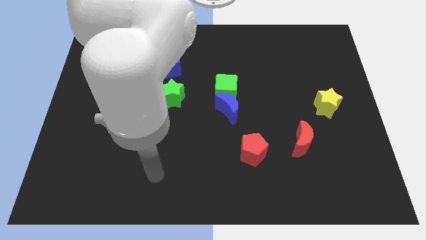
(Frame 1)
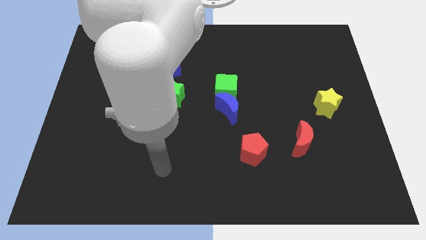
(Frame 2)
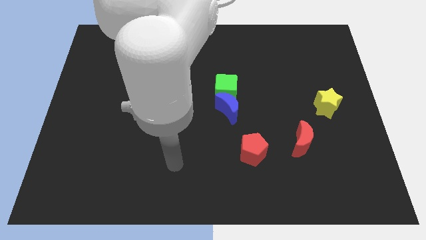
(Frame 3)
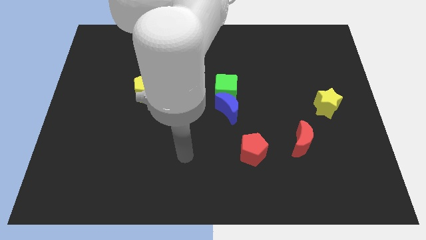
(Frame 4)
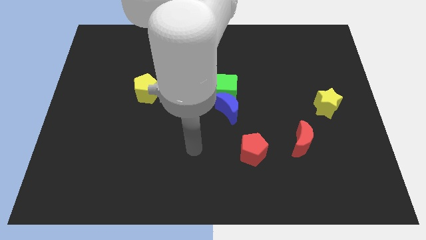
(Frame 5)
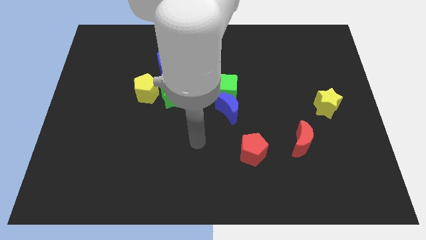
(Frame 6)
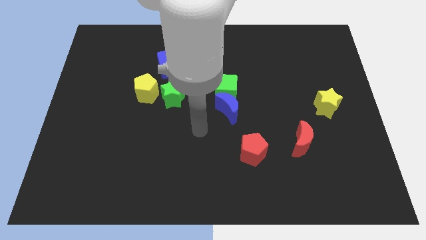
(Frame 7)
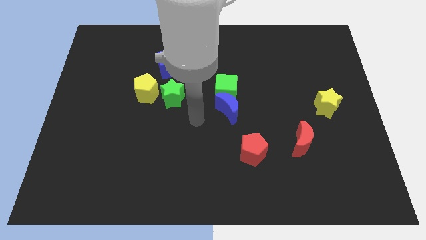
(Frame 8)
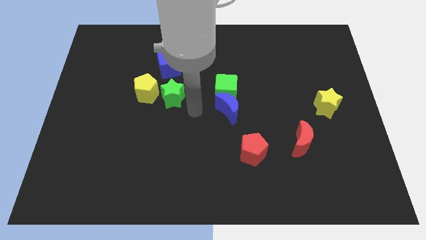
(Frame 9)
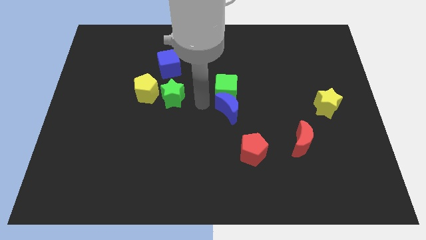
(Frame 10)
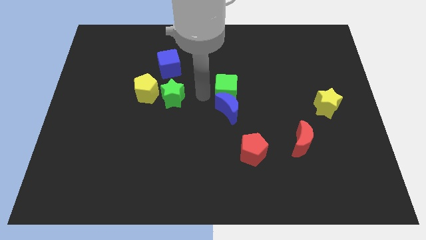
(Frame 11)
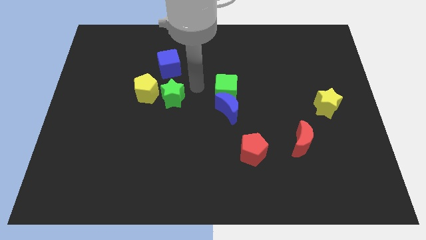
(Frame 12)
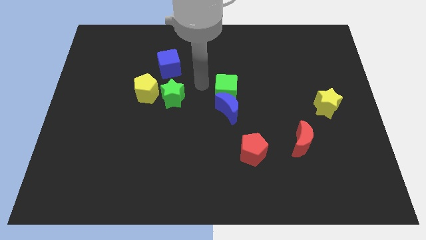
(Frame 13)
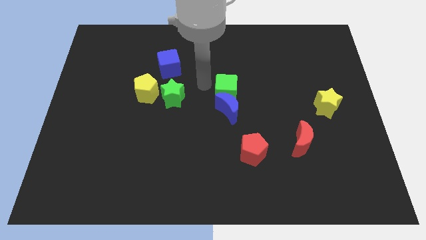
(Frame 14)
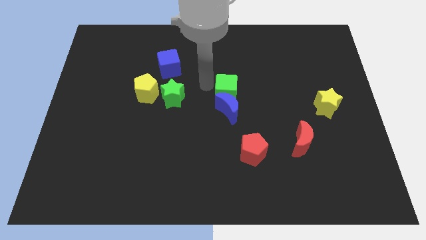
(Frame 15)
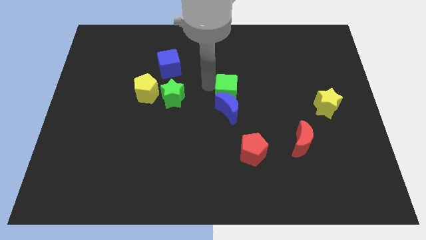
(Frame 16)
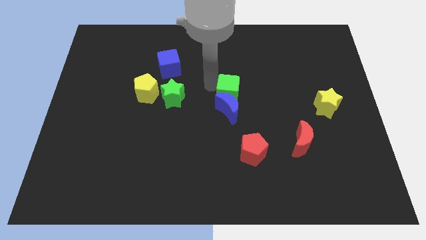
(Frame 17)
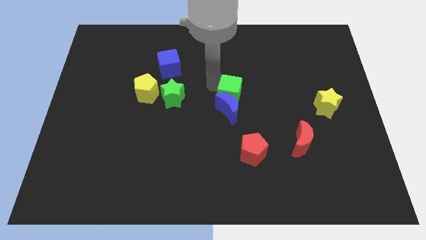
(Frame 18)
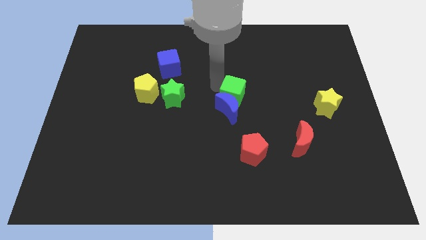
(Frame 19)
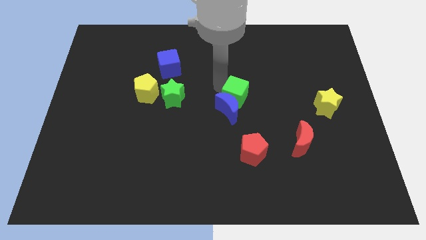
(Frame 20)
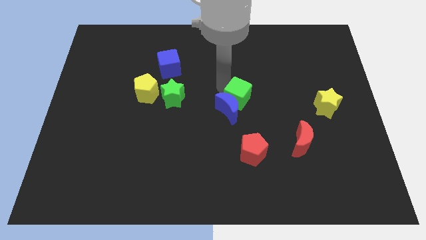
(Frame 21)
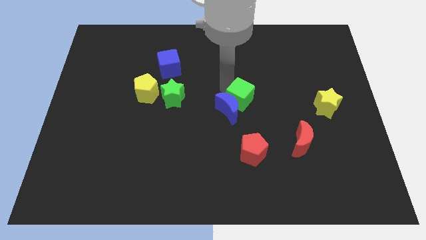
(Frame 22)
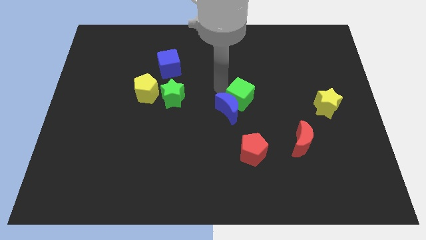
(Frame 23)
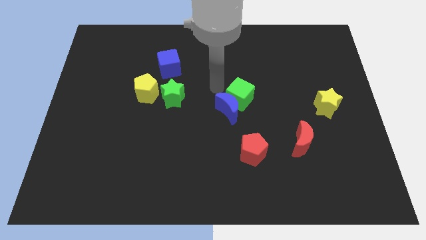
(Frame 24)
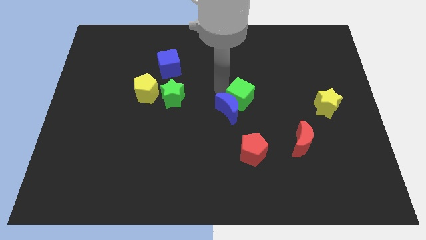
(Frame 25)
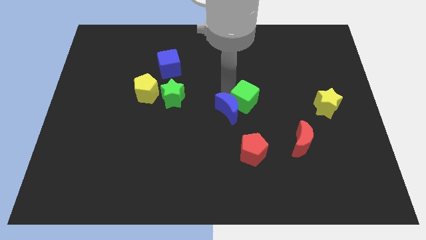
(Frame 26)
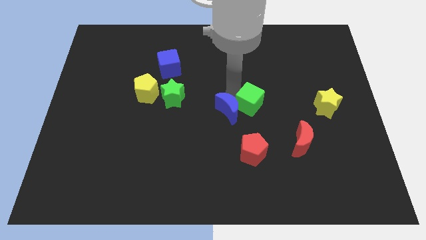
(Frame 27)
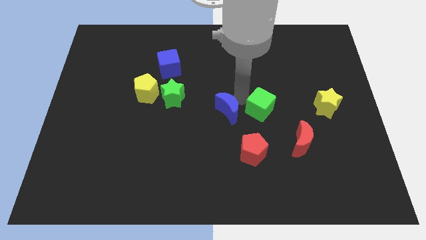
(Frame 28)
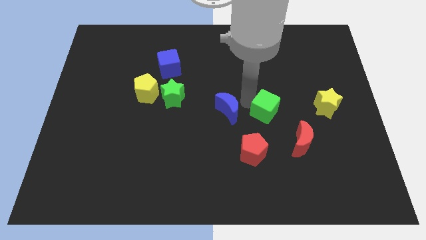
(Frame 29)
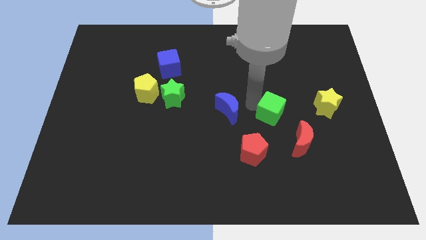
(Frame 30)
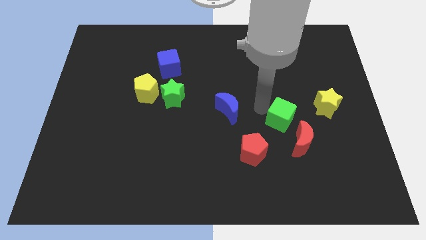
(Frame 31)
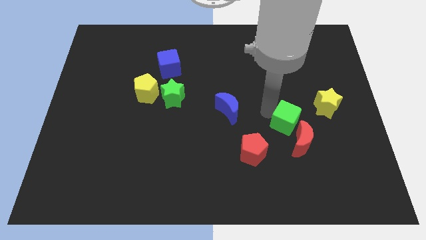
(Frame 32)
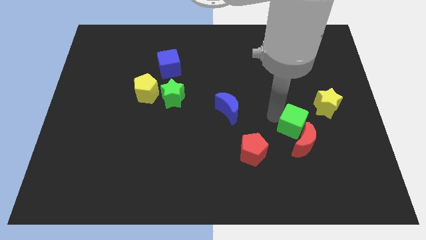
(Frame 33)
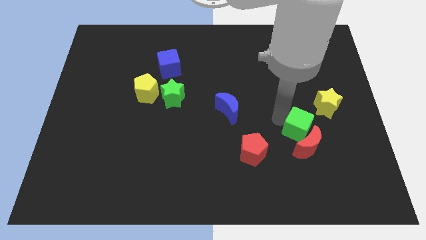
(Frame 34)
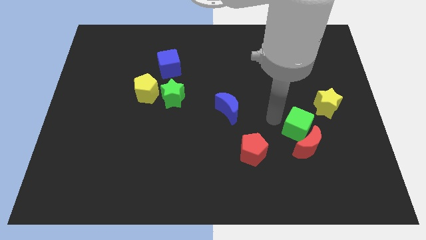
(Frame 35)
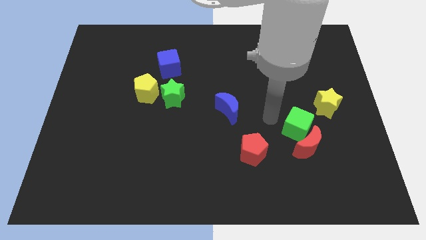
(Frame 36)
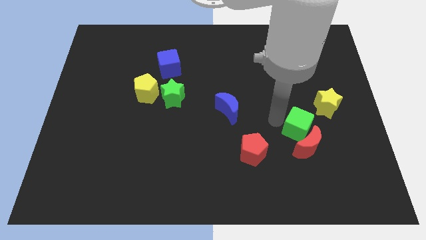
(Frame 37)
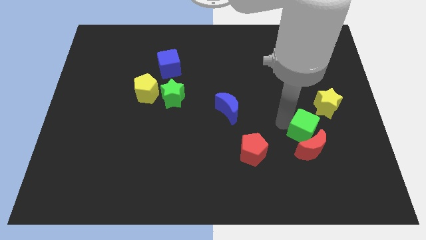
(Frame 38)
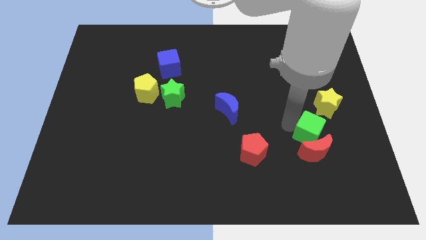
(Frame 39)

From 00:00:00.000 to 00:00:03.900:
slide the green cube down and then to the right

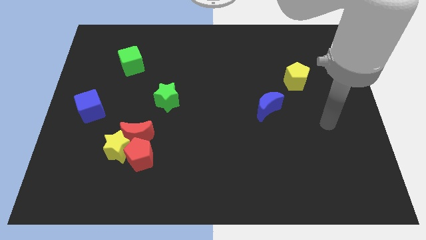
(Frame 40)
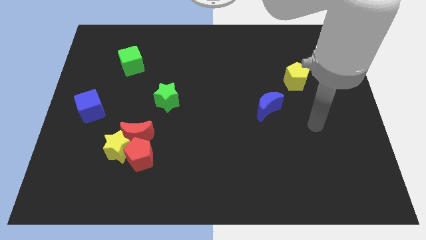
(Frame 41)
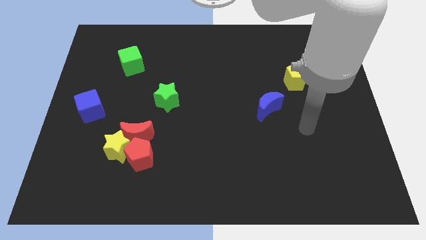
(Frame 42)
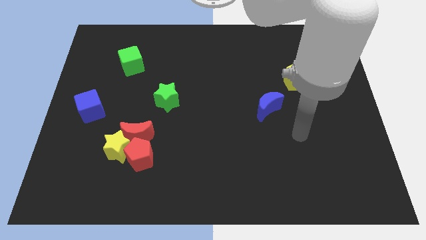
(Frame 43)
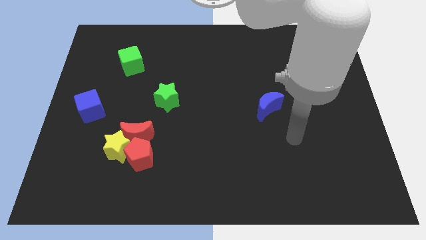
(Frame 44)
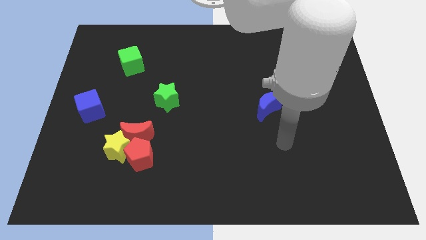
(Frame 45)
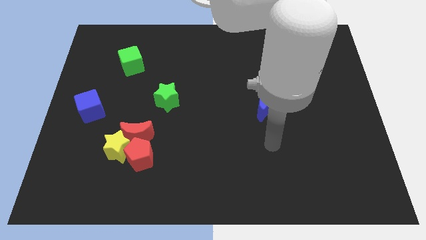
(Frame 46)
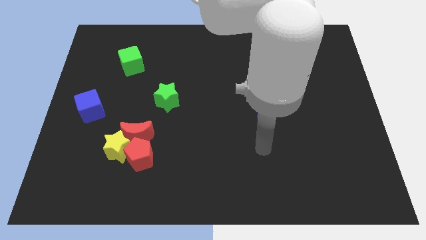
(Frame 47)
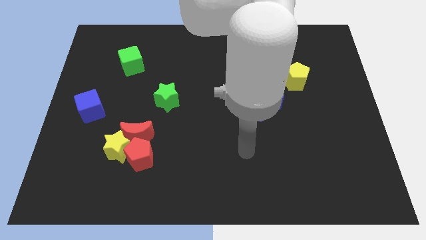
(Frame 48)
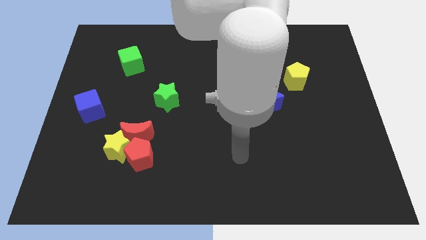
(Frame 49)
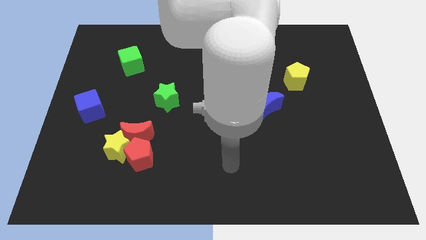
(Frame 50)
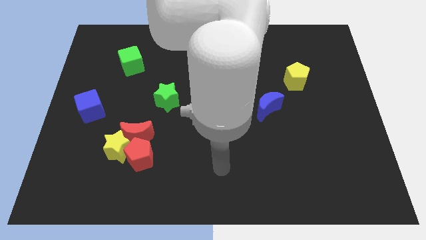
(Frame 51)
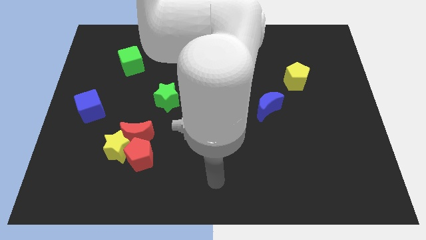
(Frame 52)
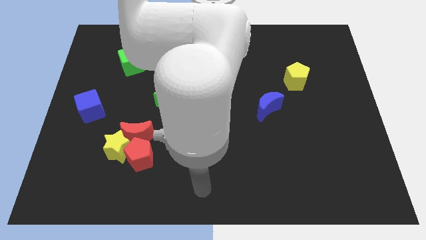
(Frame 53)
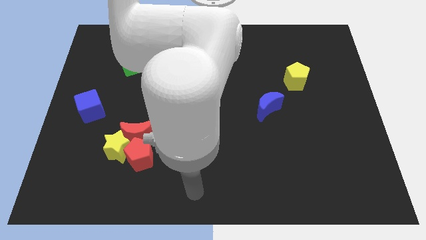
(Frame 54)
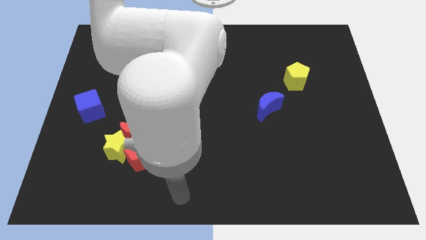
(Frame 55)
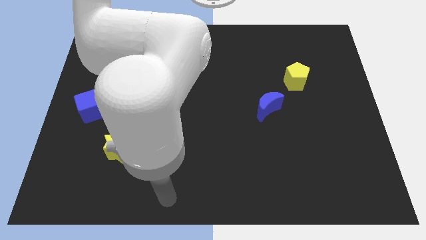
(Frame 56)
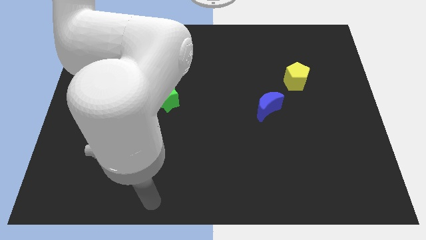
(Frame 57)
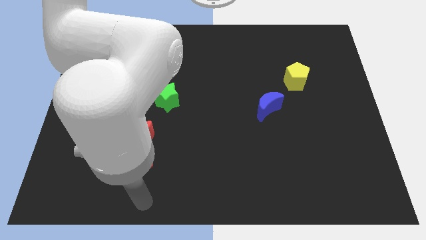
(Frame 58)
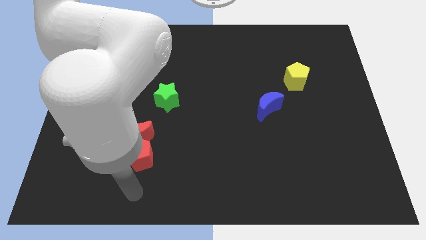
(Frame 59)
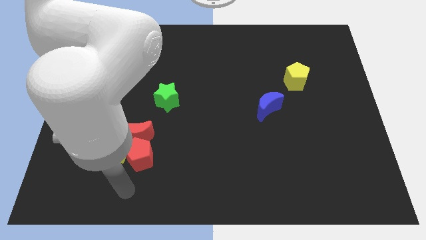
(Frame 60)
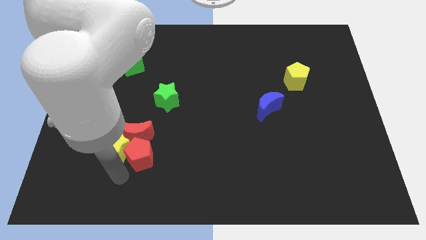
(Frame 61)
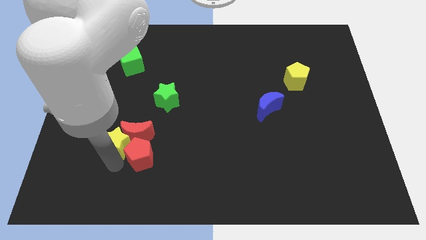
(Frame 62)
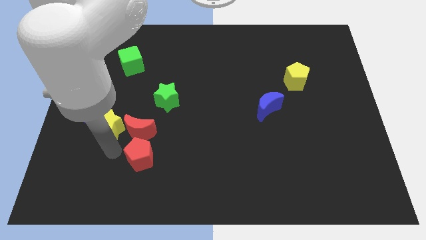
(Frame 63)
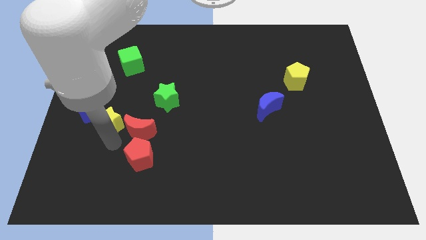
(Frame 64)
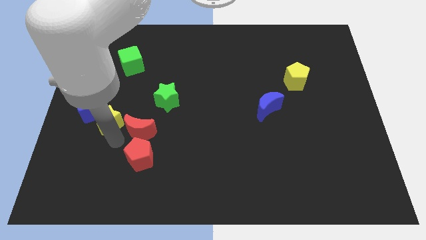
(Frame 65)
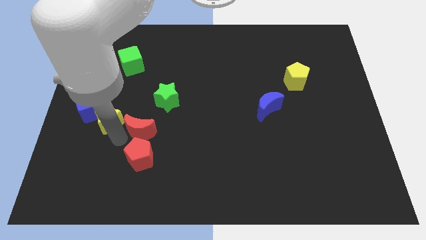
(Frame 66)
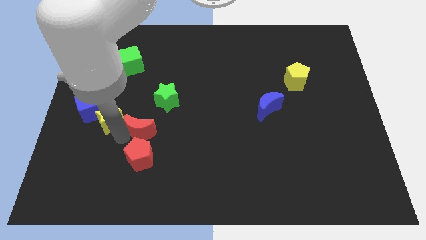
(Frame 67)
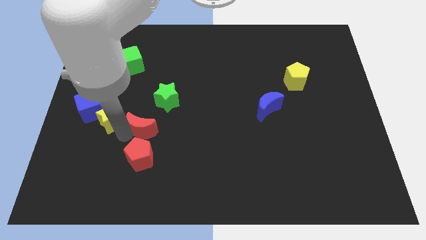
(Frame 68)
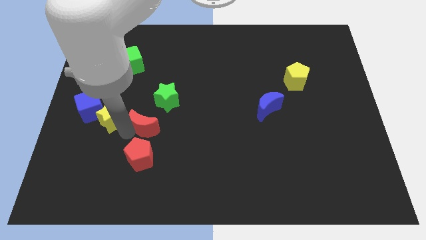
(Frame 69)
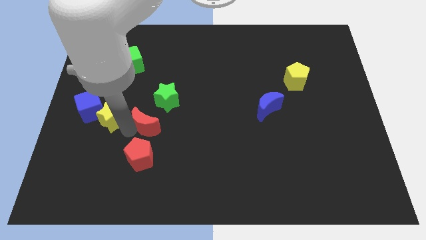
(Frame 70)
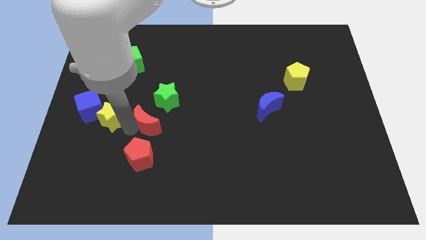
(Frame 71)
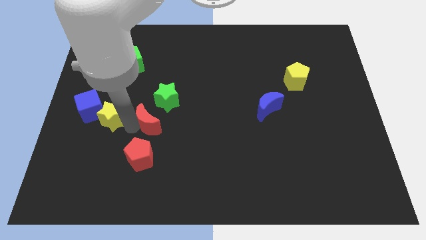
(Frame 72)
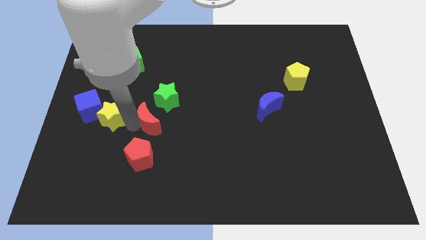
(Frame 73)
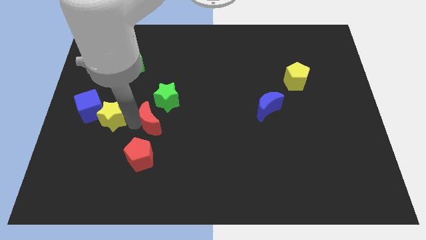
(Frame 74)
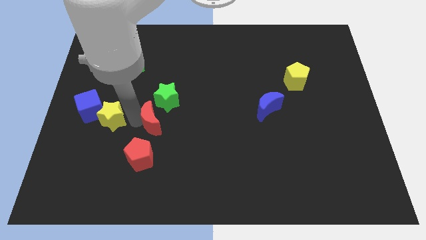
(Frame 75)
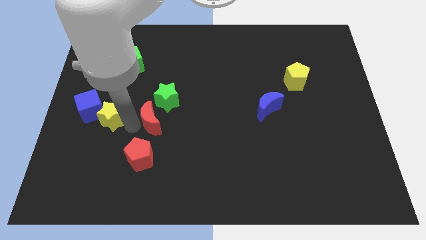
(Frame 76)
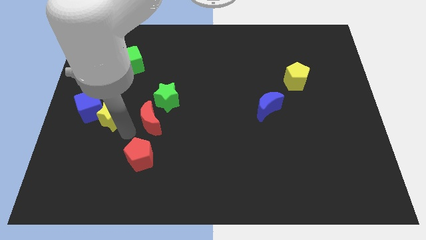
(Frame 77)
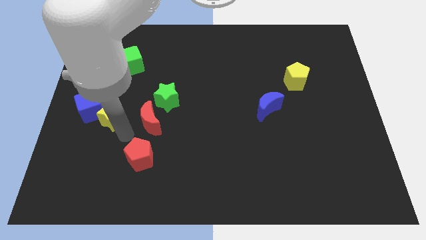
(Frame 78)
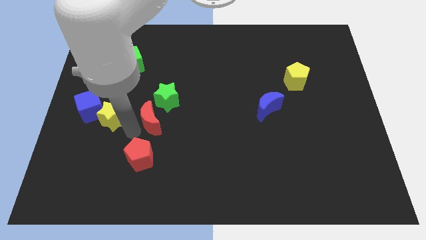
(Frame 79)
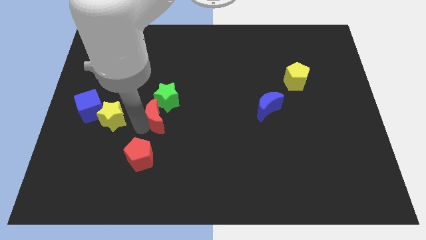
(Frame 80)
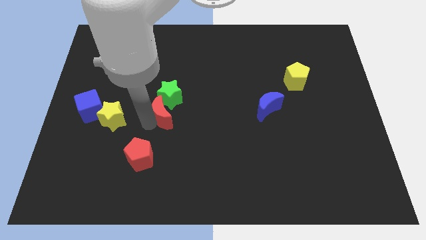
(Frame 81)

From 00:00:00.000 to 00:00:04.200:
slightly move the red moon diagonally upwards and right
